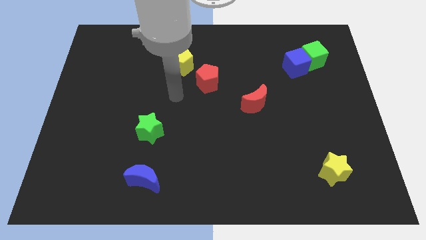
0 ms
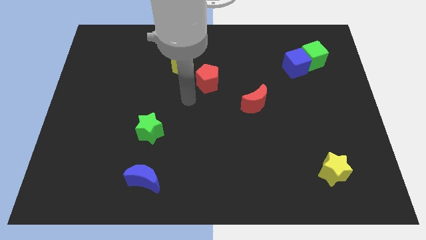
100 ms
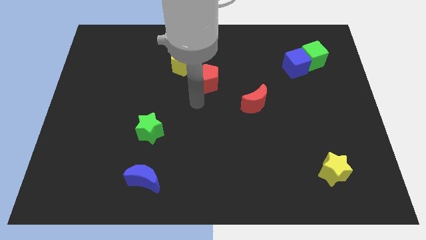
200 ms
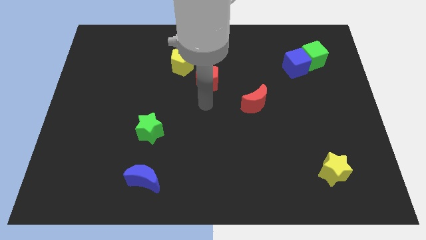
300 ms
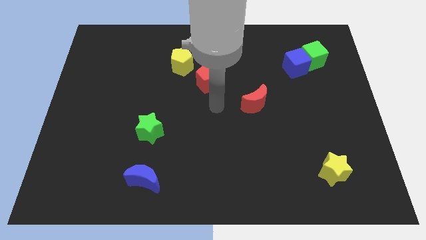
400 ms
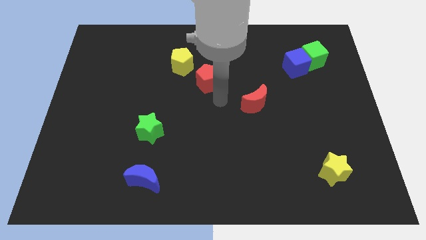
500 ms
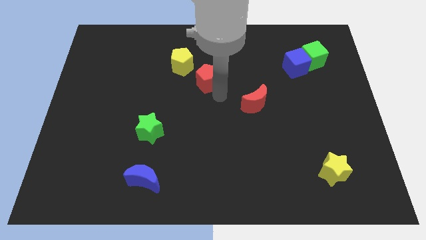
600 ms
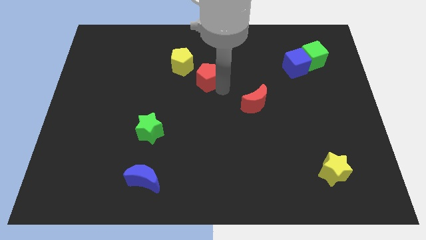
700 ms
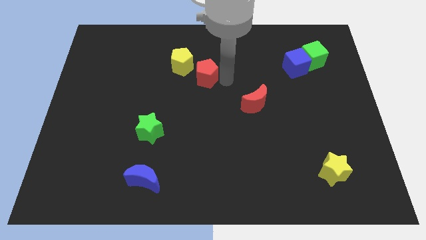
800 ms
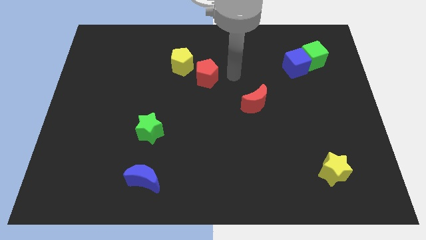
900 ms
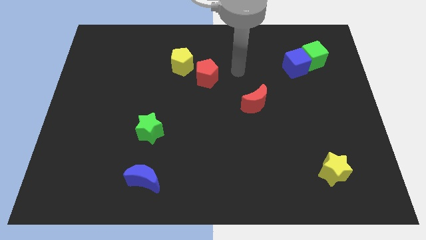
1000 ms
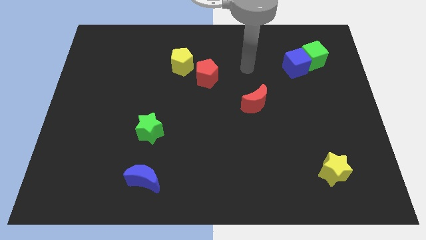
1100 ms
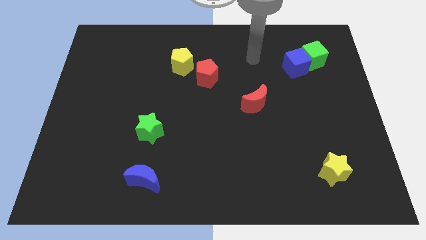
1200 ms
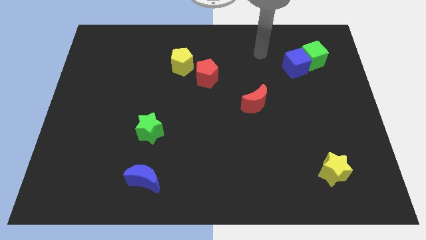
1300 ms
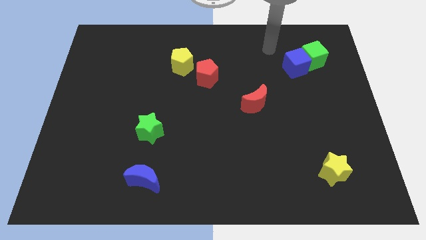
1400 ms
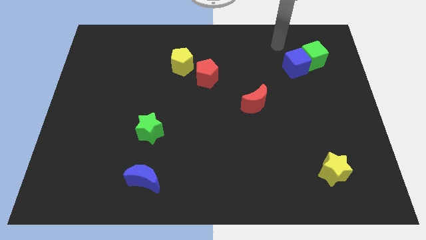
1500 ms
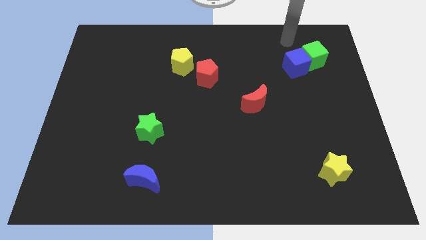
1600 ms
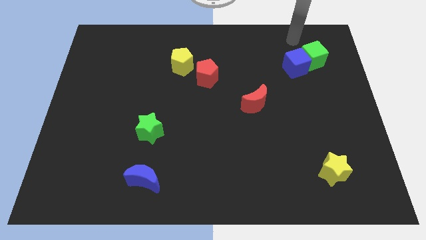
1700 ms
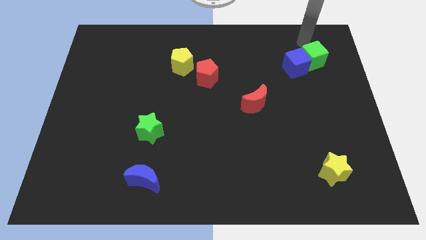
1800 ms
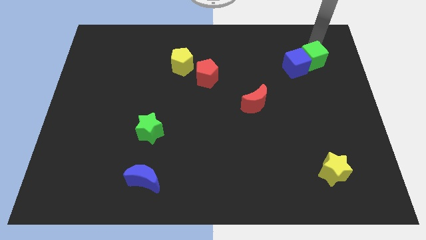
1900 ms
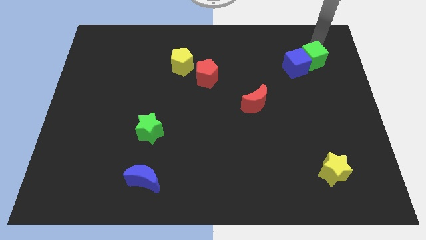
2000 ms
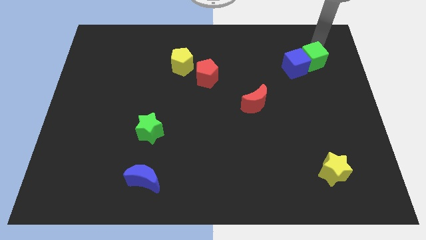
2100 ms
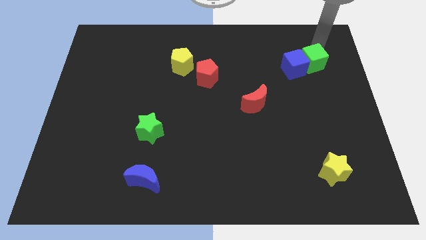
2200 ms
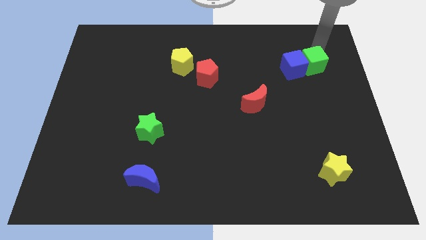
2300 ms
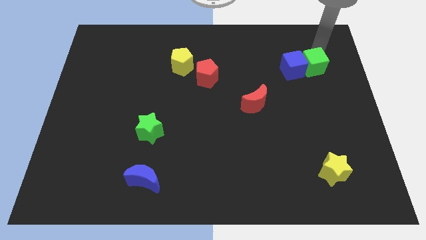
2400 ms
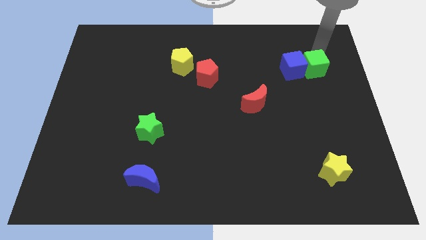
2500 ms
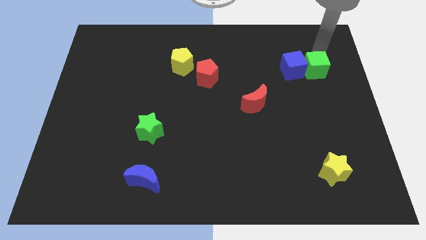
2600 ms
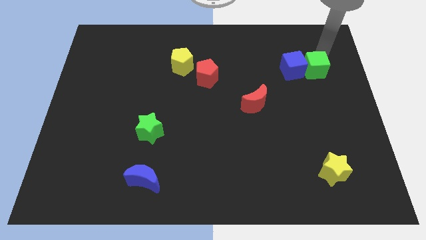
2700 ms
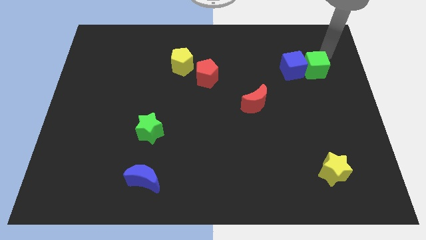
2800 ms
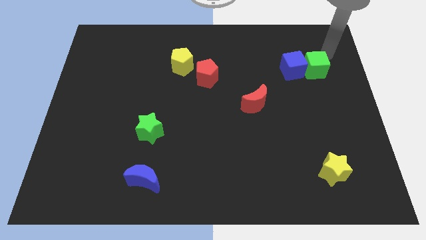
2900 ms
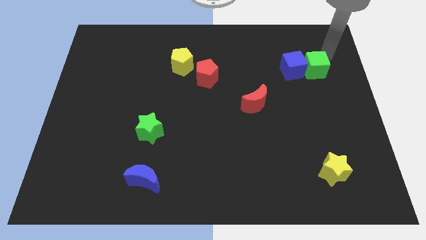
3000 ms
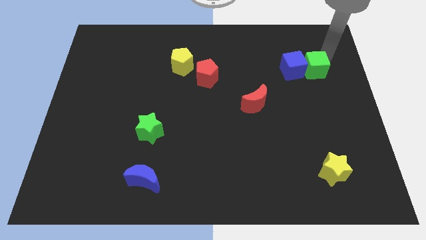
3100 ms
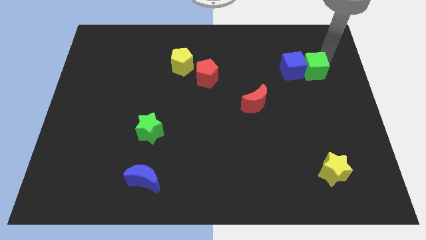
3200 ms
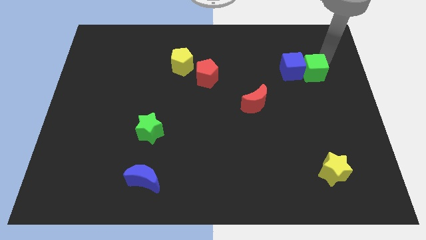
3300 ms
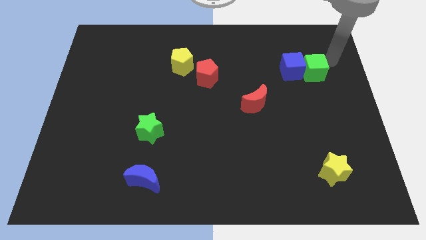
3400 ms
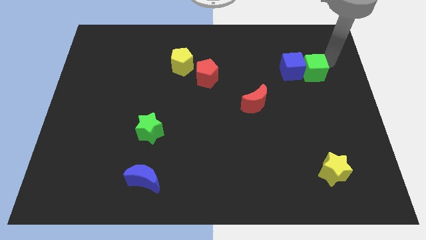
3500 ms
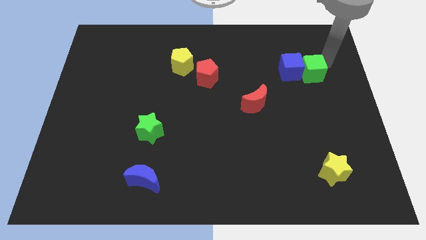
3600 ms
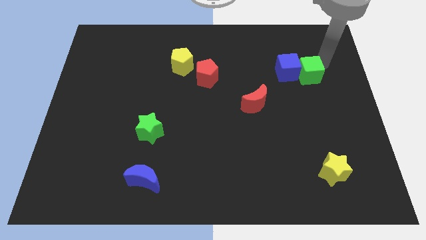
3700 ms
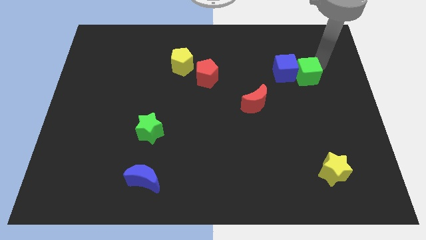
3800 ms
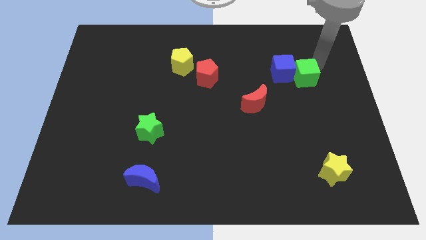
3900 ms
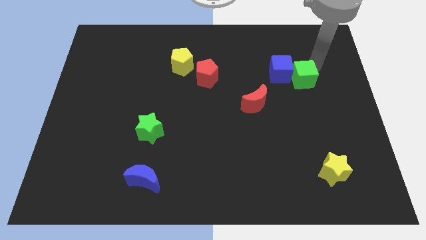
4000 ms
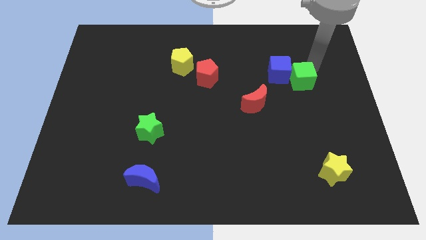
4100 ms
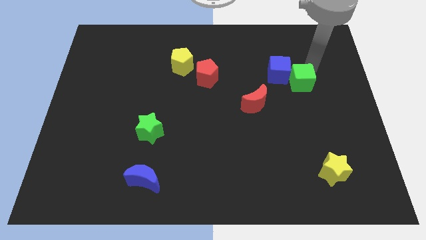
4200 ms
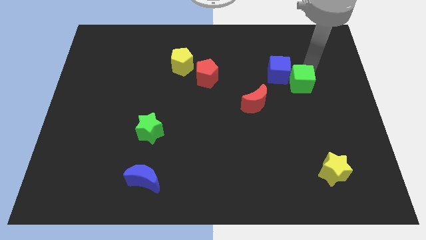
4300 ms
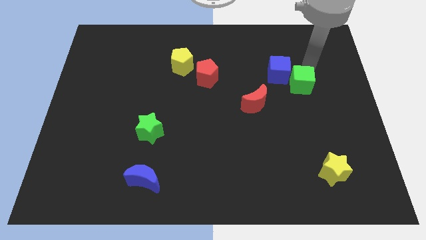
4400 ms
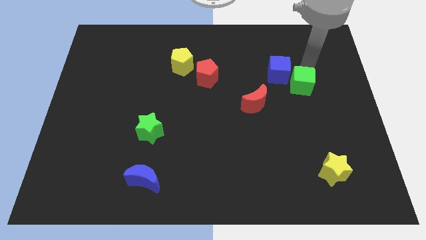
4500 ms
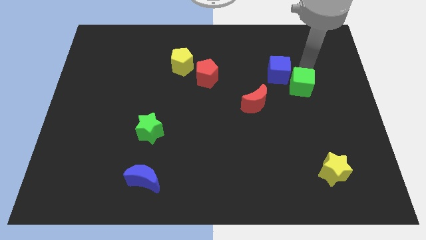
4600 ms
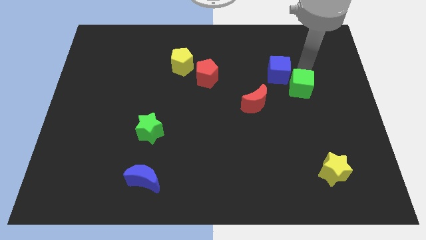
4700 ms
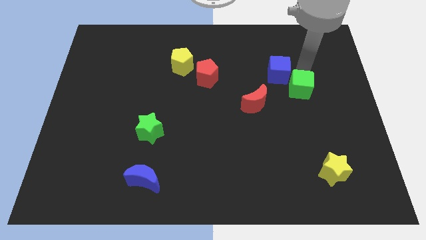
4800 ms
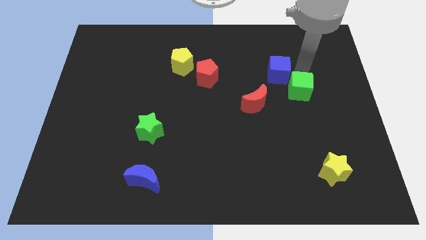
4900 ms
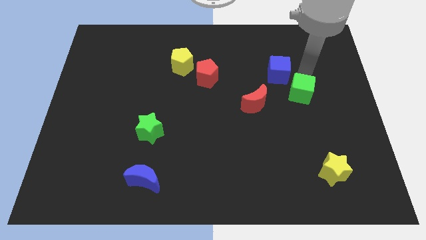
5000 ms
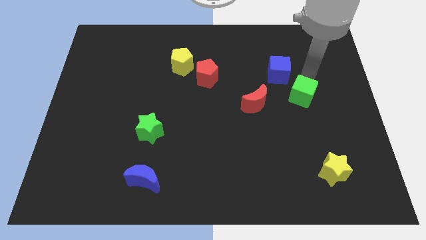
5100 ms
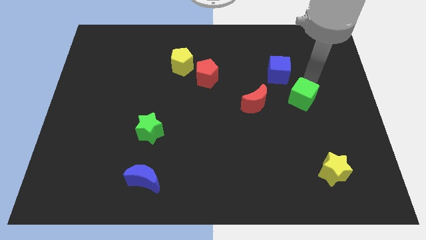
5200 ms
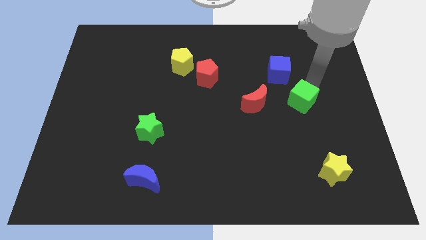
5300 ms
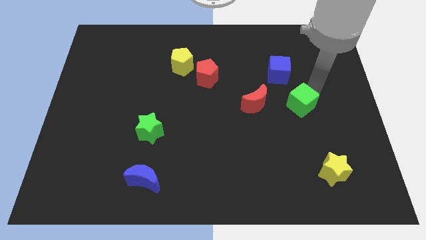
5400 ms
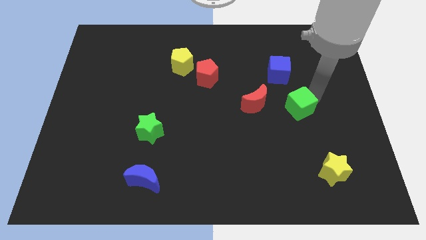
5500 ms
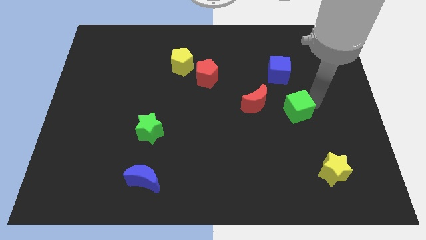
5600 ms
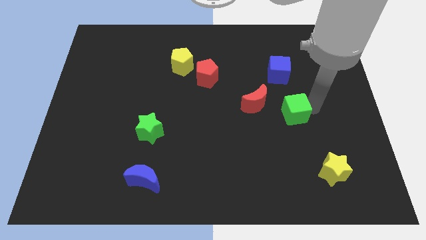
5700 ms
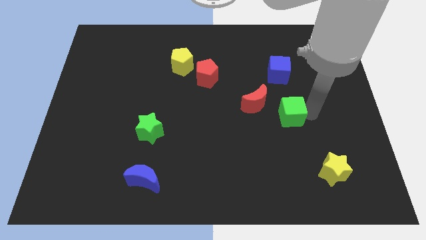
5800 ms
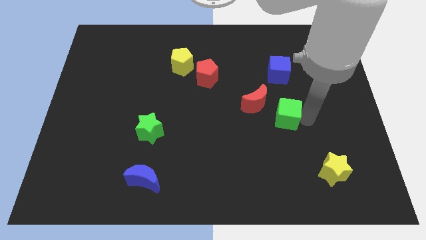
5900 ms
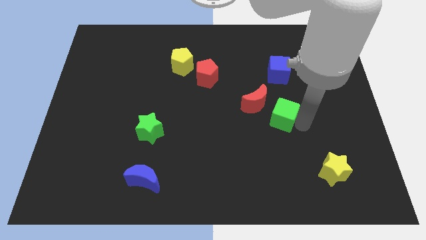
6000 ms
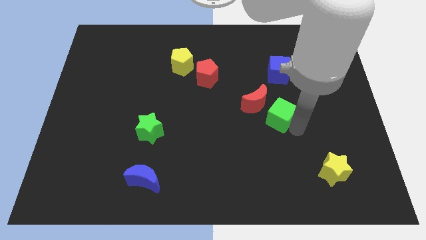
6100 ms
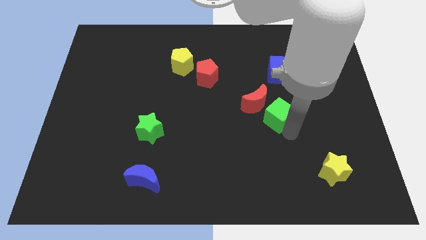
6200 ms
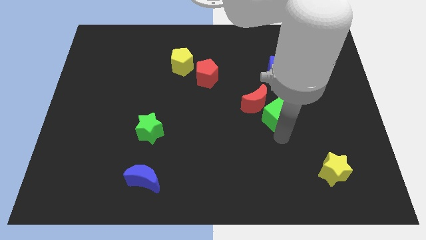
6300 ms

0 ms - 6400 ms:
slide the green cube to the red moon

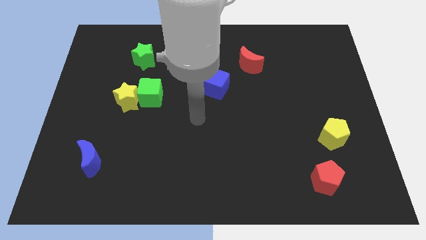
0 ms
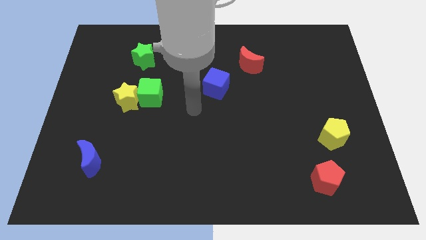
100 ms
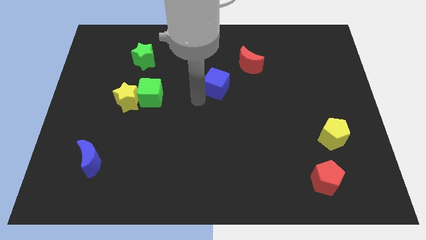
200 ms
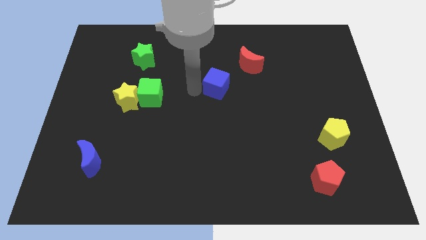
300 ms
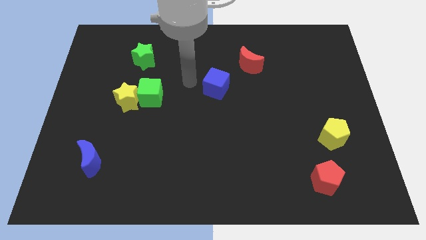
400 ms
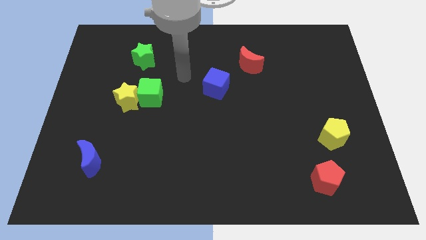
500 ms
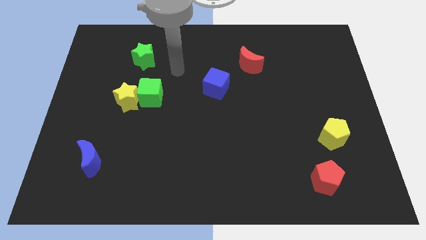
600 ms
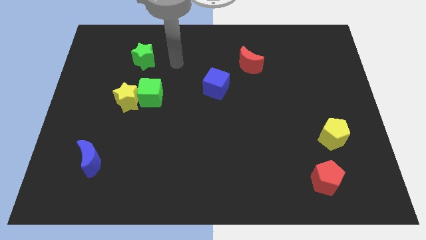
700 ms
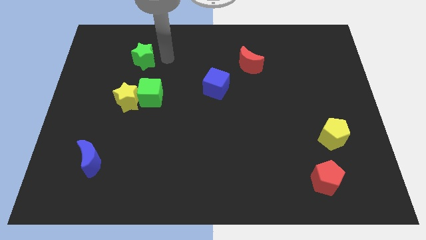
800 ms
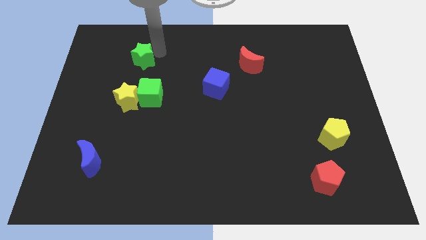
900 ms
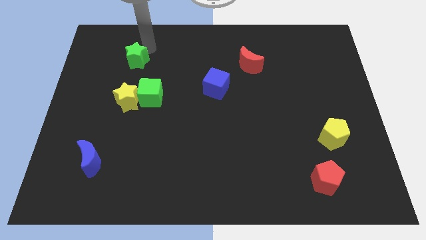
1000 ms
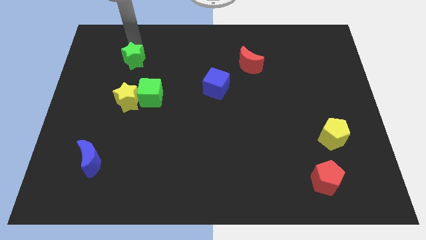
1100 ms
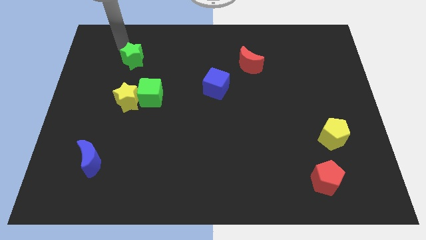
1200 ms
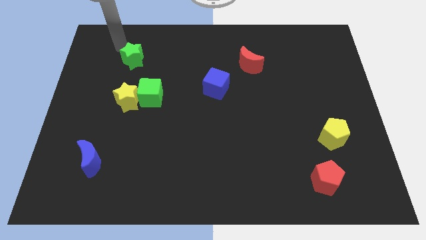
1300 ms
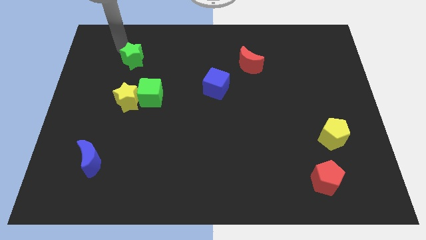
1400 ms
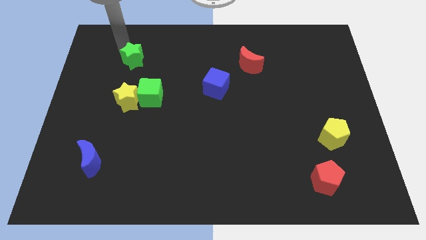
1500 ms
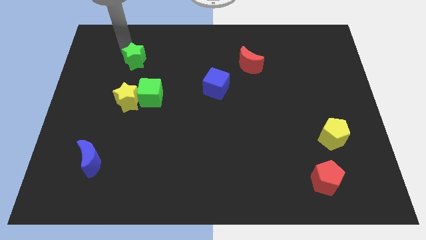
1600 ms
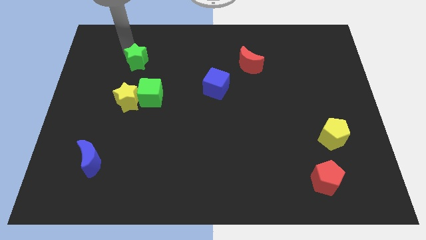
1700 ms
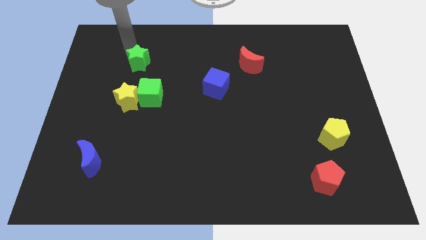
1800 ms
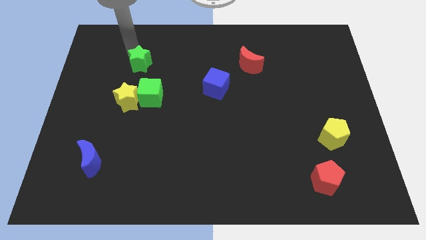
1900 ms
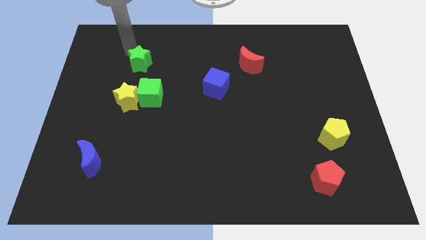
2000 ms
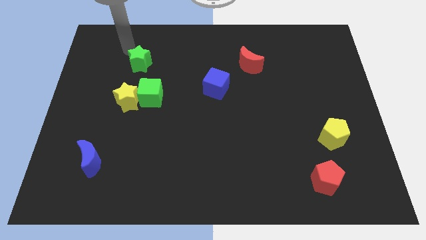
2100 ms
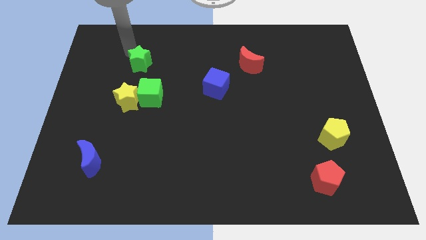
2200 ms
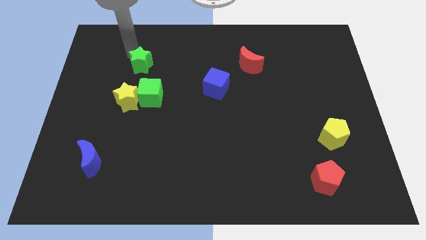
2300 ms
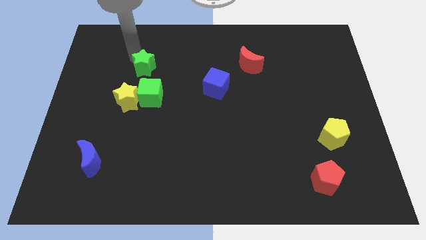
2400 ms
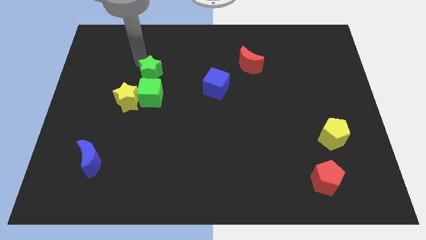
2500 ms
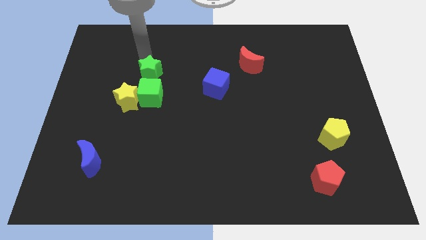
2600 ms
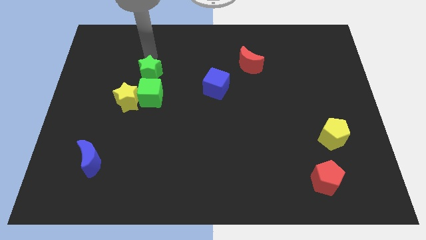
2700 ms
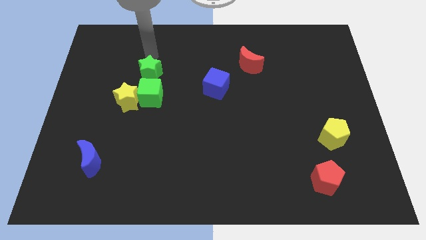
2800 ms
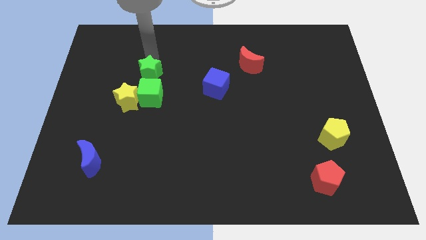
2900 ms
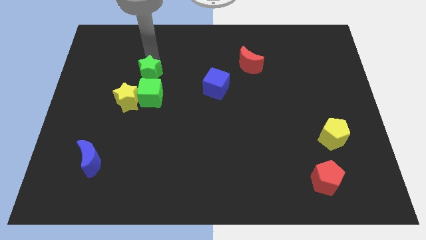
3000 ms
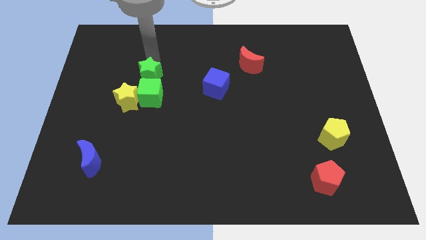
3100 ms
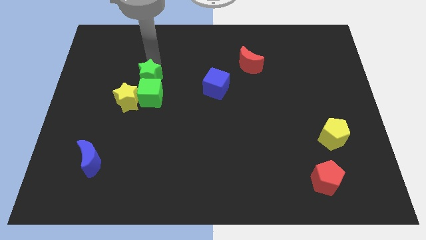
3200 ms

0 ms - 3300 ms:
slide the green star next to the green cube
